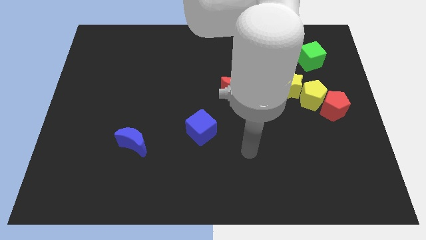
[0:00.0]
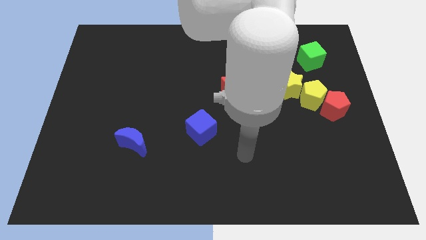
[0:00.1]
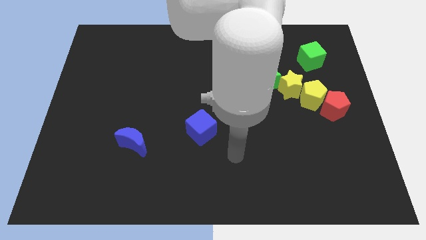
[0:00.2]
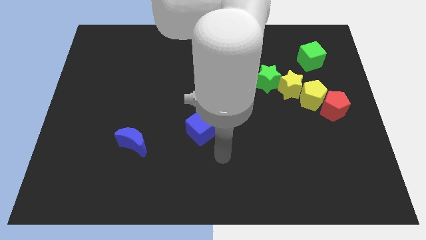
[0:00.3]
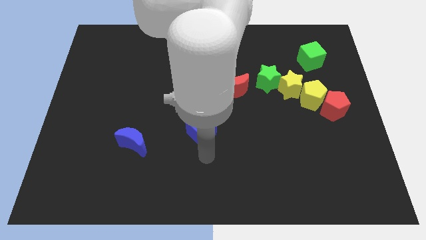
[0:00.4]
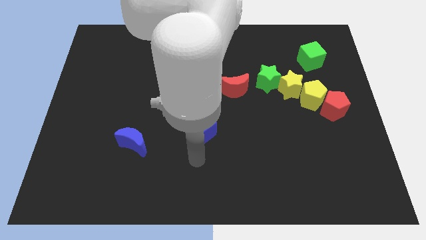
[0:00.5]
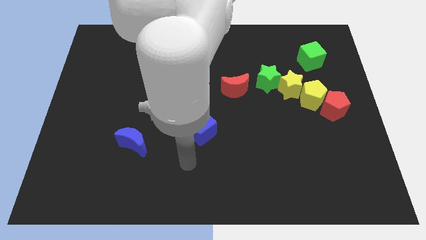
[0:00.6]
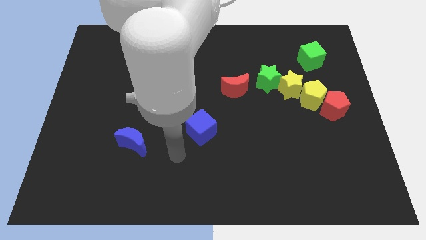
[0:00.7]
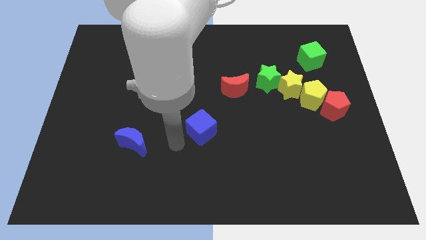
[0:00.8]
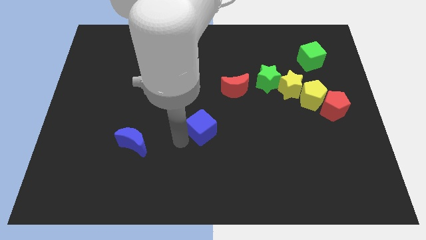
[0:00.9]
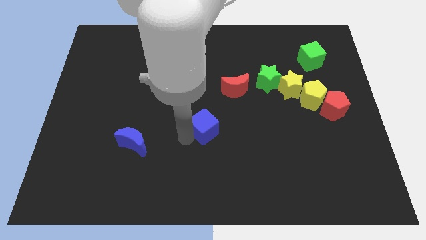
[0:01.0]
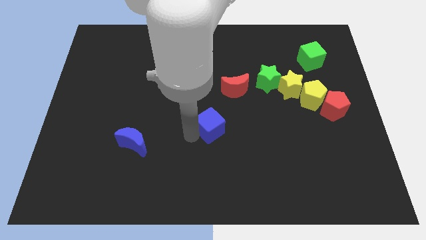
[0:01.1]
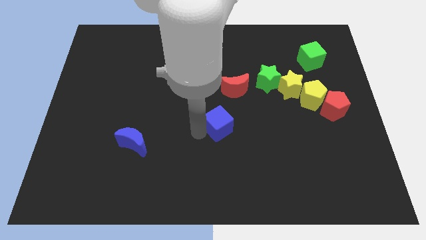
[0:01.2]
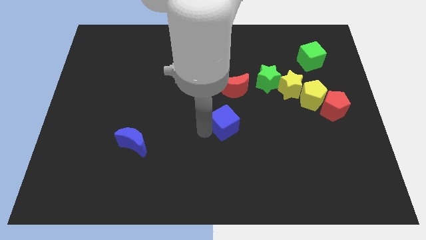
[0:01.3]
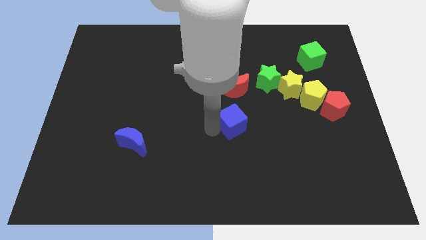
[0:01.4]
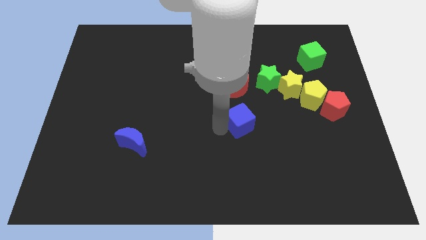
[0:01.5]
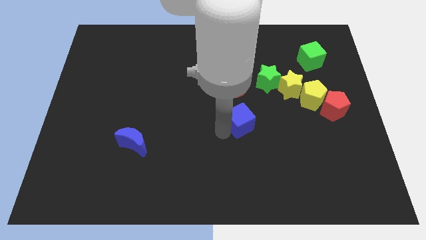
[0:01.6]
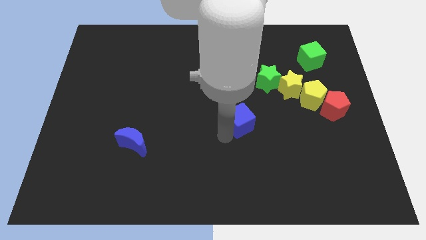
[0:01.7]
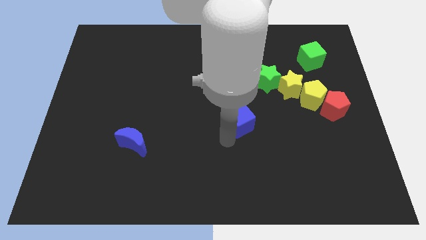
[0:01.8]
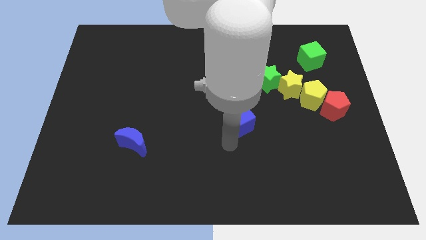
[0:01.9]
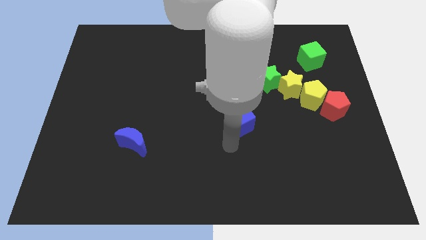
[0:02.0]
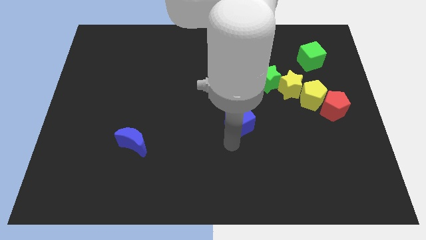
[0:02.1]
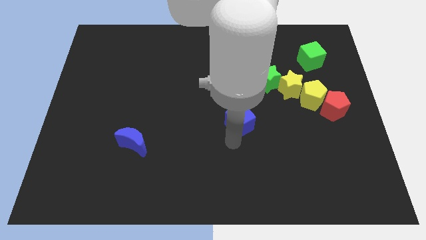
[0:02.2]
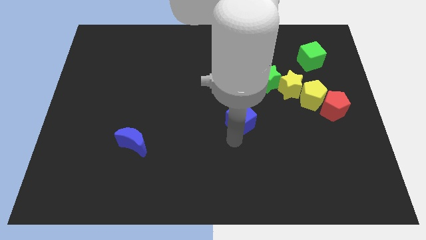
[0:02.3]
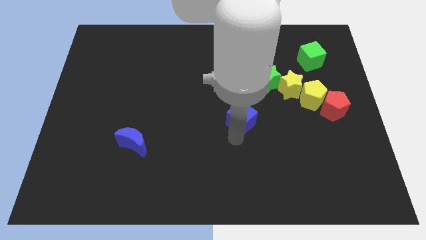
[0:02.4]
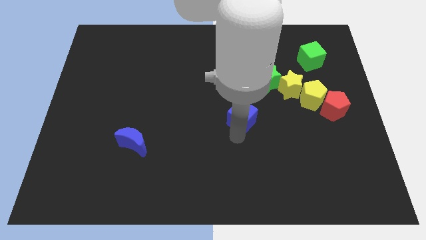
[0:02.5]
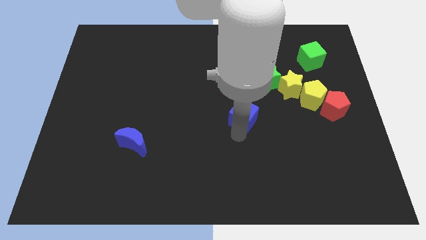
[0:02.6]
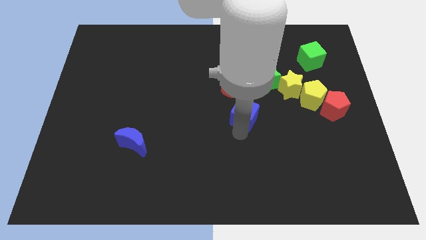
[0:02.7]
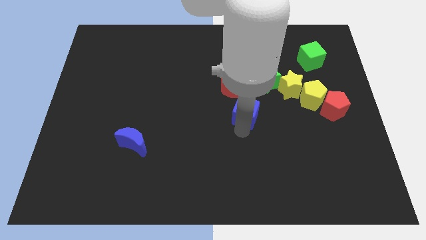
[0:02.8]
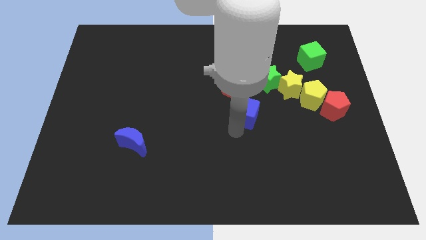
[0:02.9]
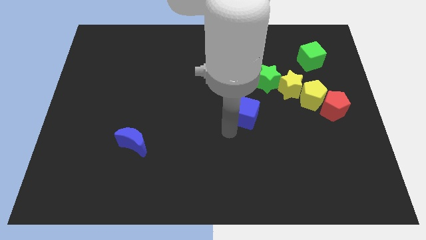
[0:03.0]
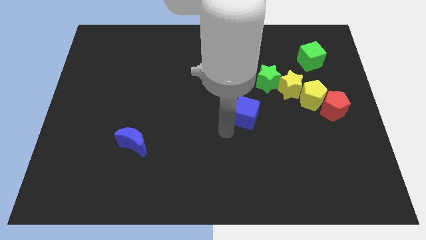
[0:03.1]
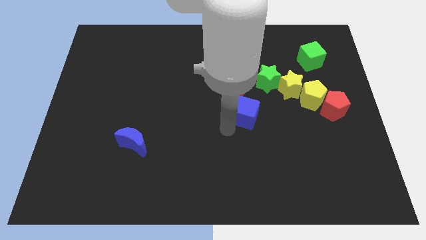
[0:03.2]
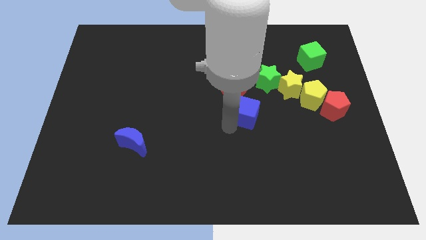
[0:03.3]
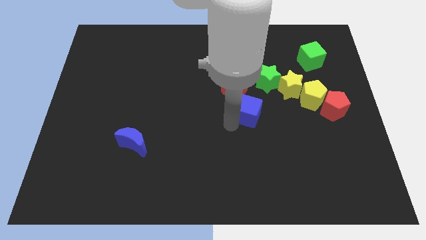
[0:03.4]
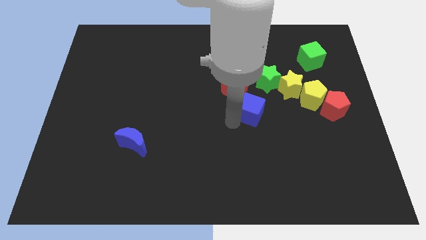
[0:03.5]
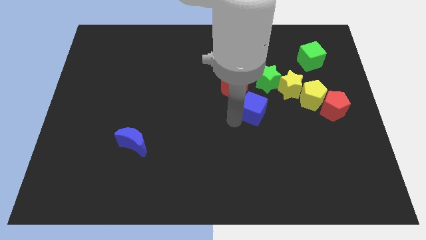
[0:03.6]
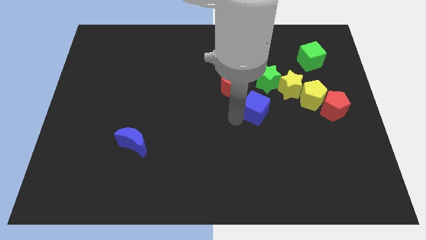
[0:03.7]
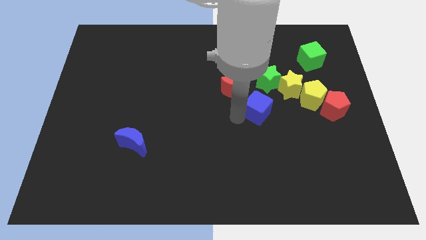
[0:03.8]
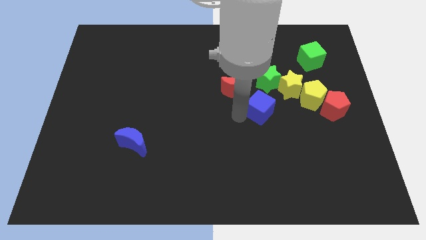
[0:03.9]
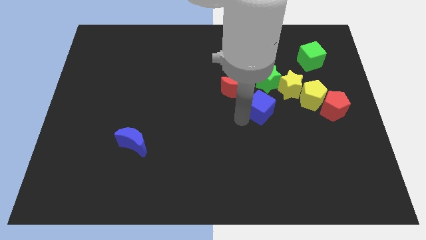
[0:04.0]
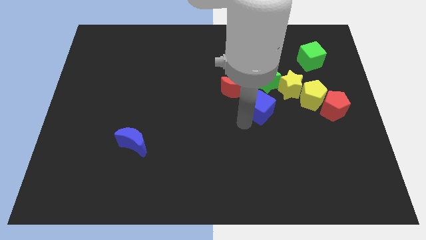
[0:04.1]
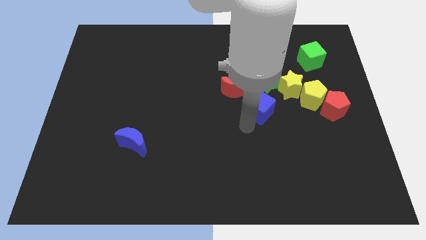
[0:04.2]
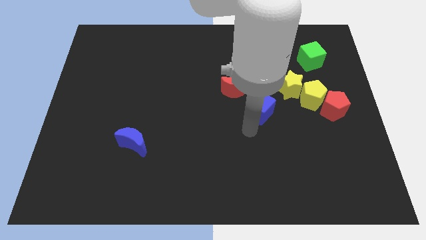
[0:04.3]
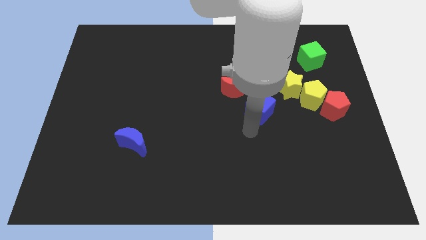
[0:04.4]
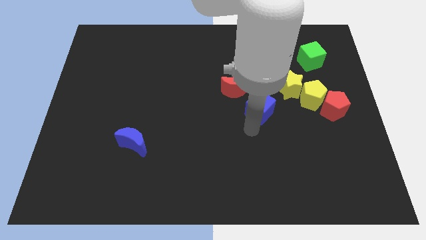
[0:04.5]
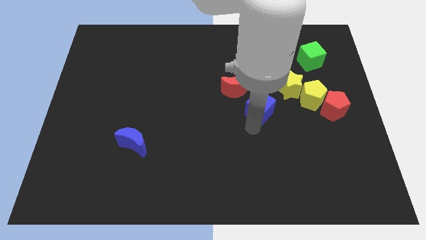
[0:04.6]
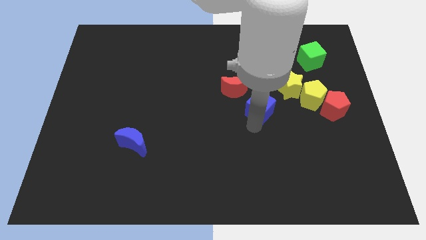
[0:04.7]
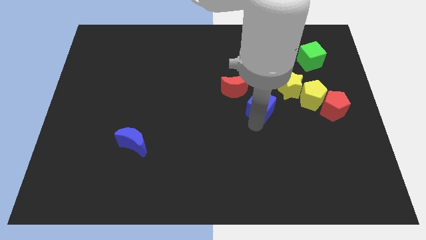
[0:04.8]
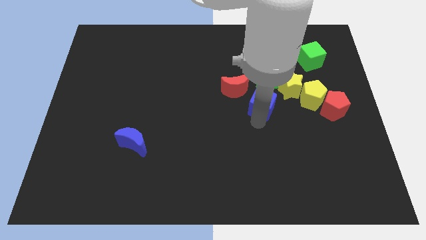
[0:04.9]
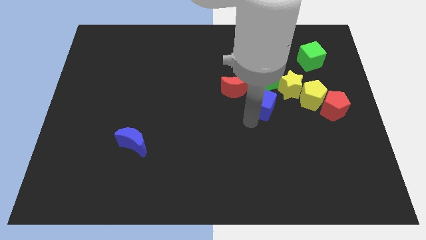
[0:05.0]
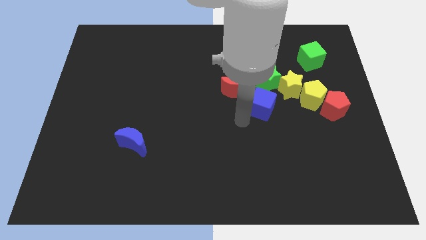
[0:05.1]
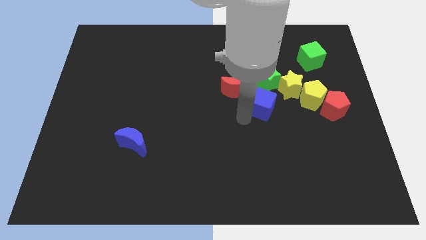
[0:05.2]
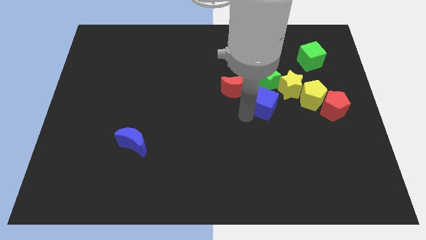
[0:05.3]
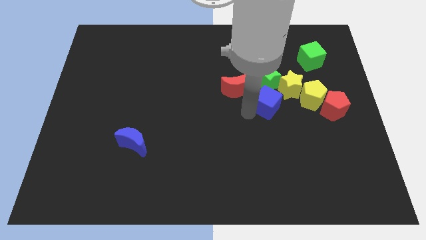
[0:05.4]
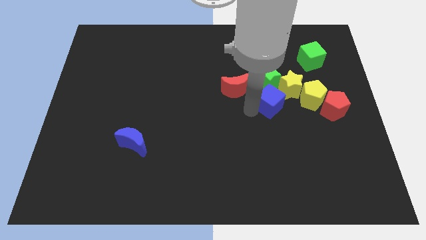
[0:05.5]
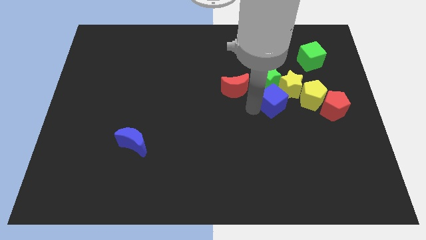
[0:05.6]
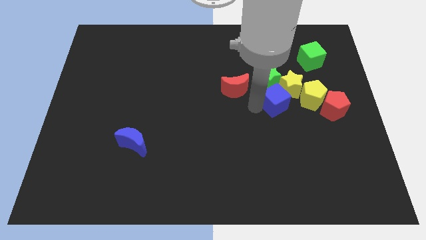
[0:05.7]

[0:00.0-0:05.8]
put the blue cube to the yellow star

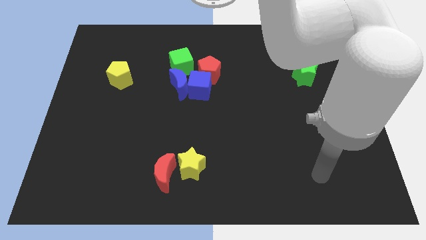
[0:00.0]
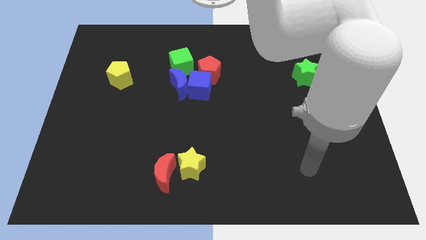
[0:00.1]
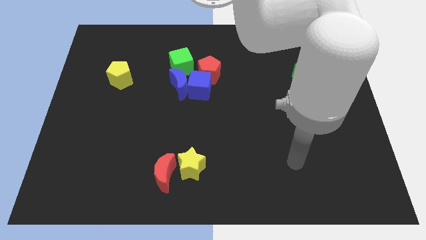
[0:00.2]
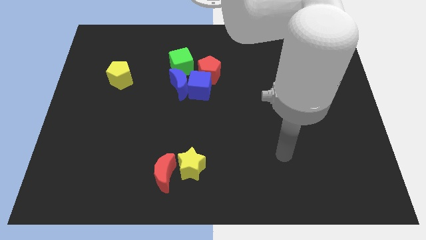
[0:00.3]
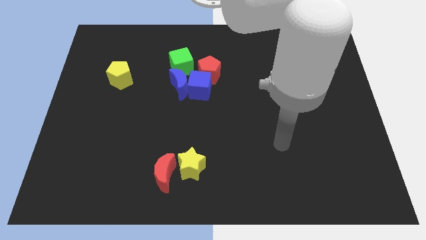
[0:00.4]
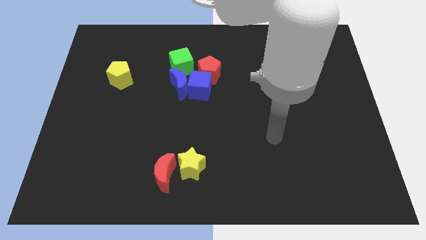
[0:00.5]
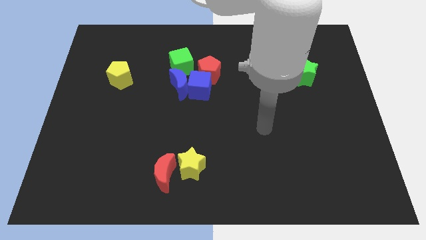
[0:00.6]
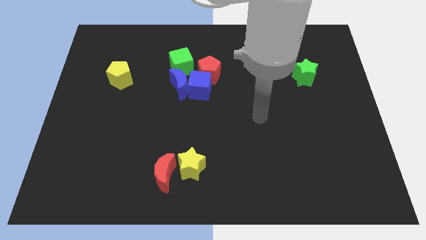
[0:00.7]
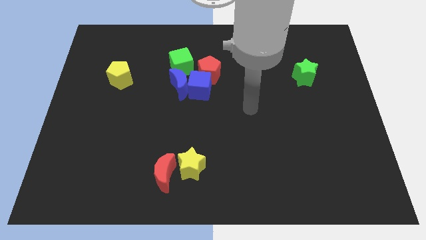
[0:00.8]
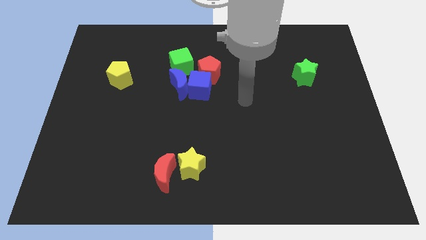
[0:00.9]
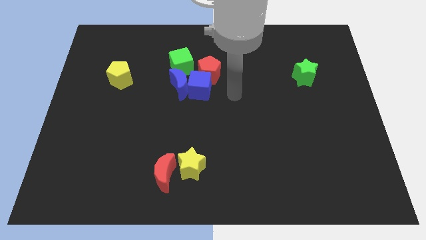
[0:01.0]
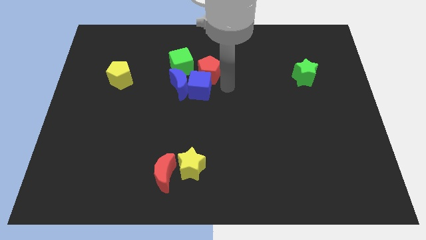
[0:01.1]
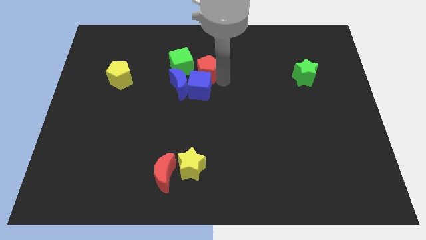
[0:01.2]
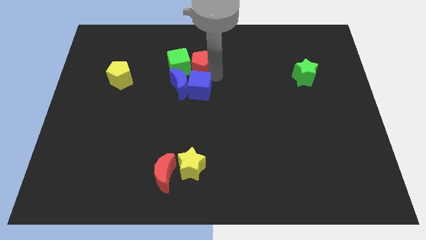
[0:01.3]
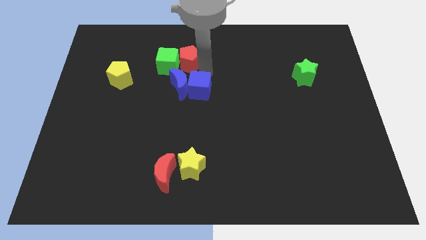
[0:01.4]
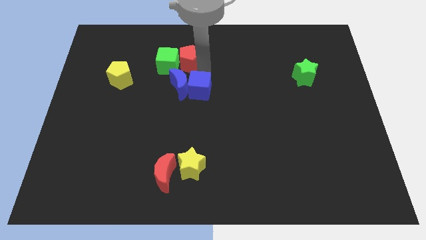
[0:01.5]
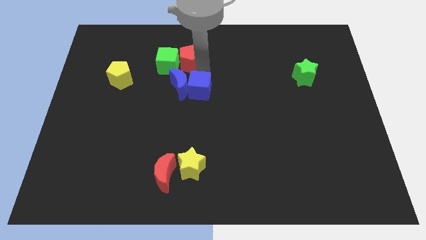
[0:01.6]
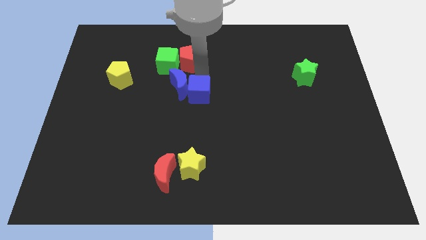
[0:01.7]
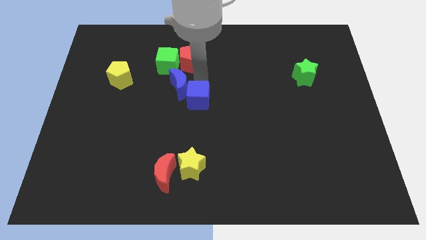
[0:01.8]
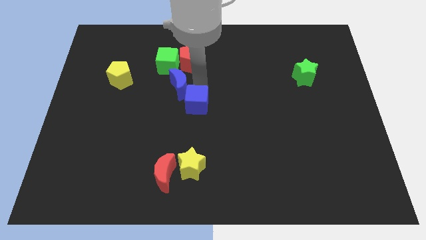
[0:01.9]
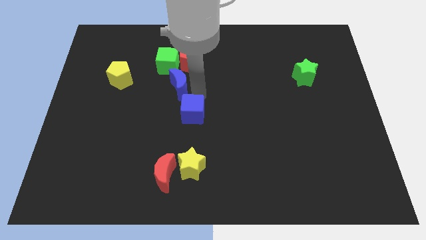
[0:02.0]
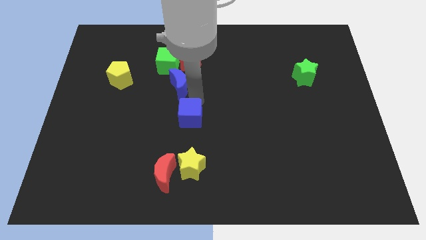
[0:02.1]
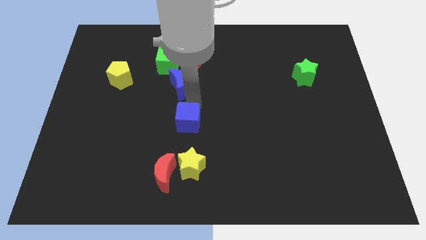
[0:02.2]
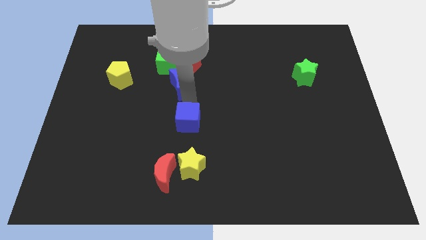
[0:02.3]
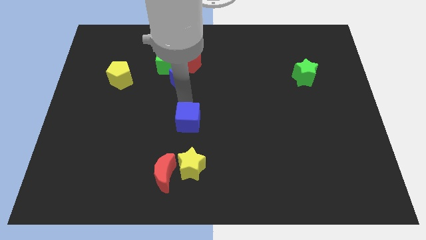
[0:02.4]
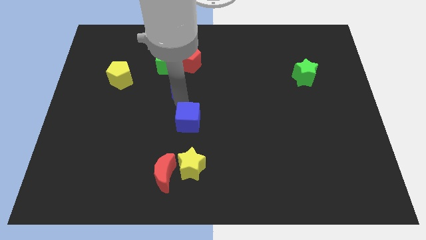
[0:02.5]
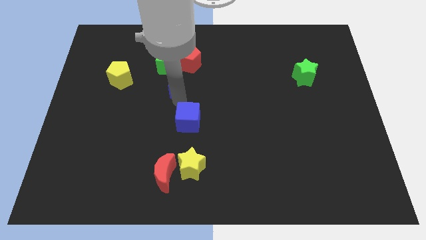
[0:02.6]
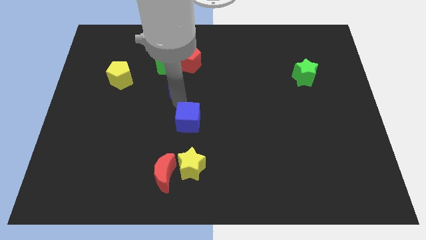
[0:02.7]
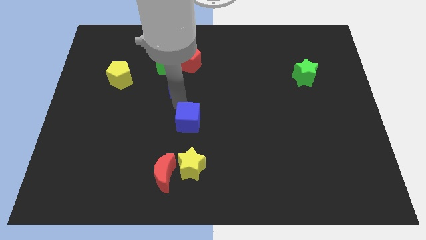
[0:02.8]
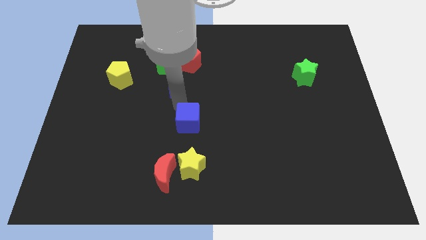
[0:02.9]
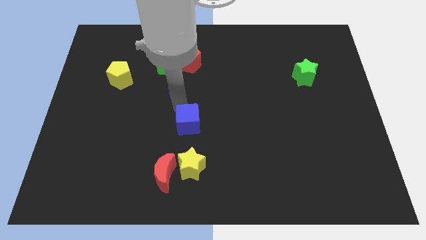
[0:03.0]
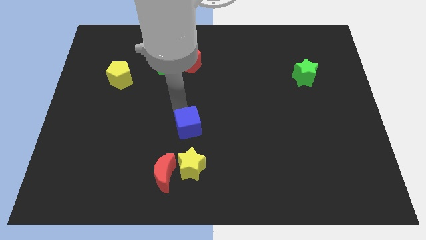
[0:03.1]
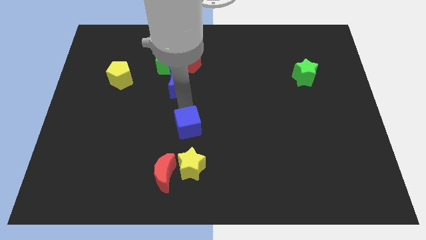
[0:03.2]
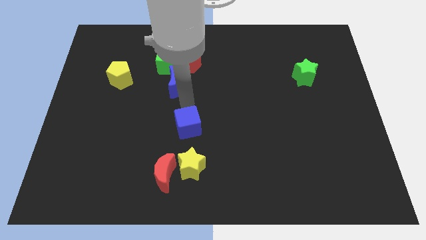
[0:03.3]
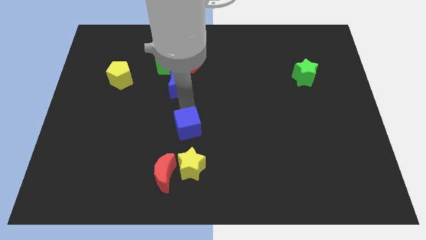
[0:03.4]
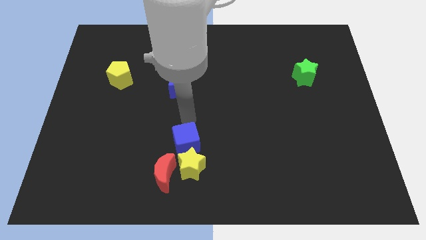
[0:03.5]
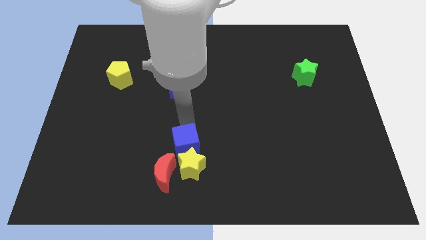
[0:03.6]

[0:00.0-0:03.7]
put the blue cube towards the yellow star
